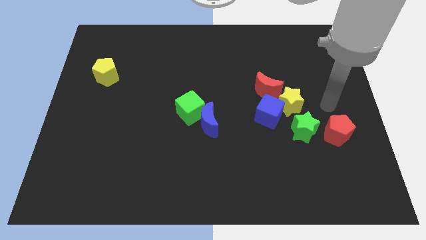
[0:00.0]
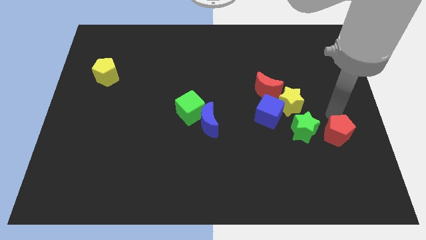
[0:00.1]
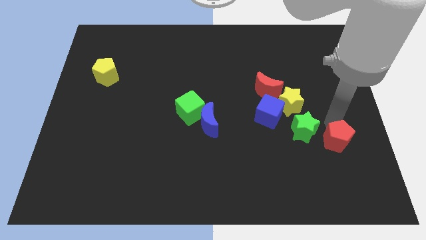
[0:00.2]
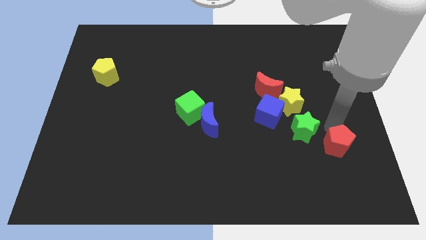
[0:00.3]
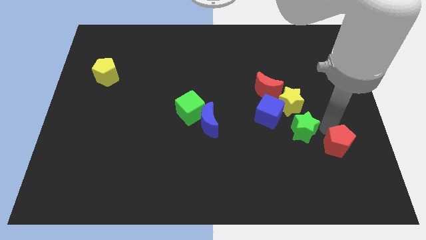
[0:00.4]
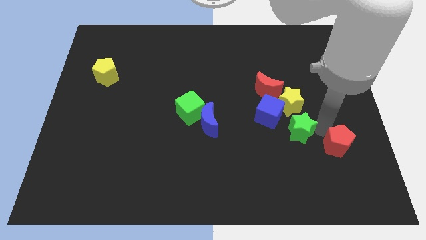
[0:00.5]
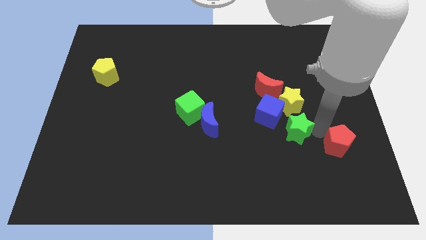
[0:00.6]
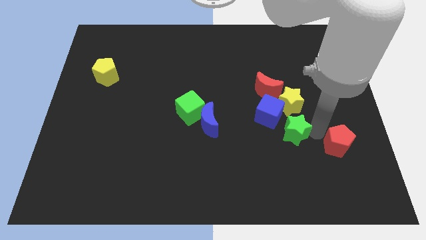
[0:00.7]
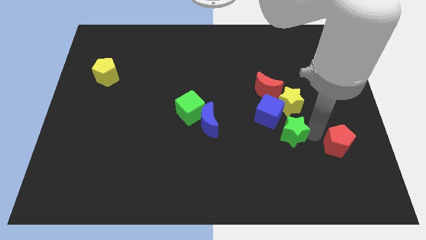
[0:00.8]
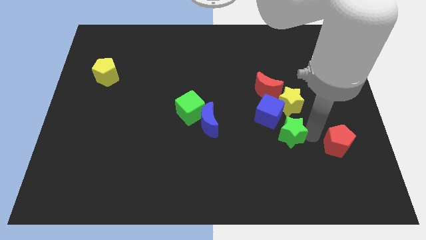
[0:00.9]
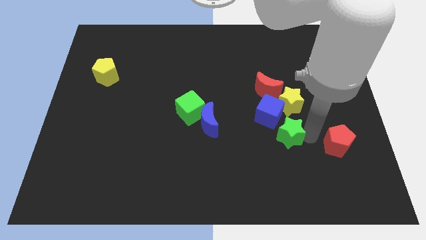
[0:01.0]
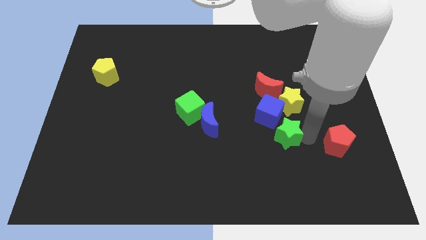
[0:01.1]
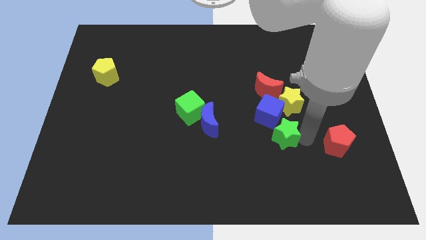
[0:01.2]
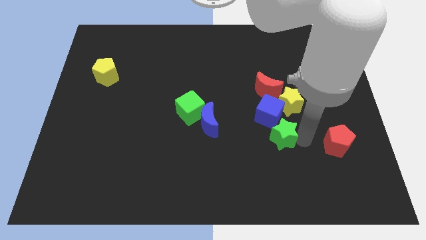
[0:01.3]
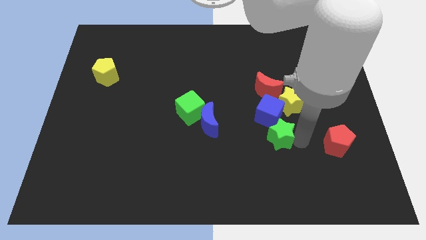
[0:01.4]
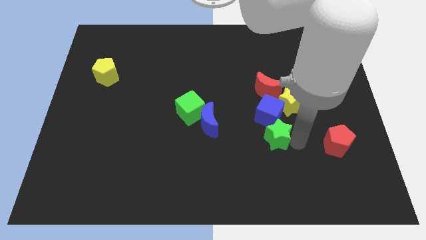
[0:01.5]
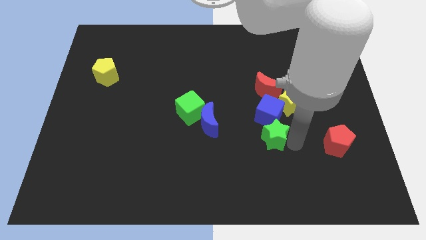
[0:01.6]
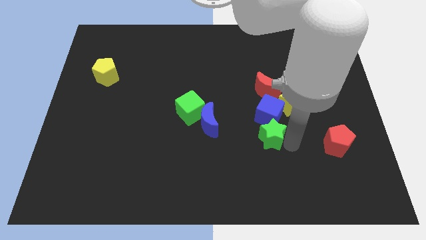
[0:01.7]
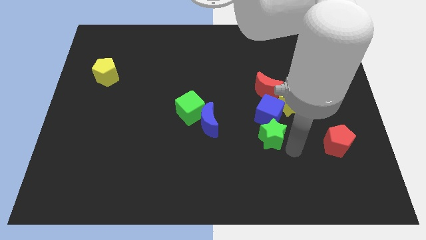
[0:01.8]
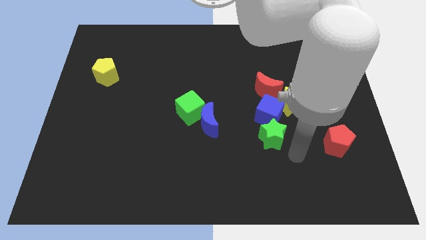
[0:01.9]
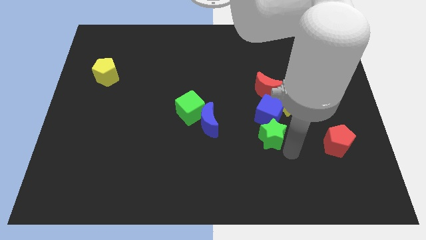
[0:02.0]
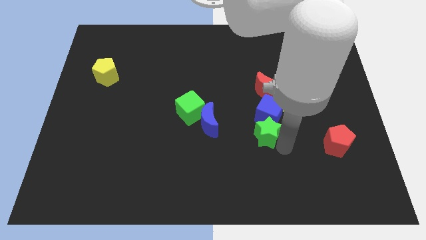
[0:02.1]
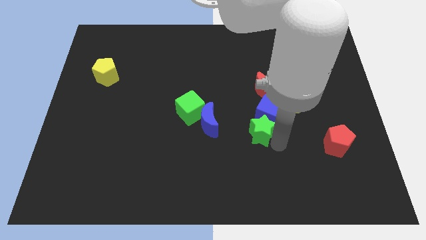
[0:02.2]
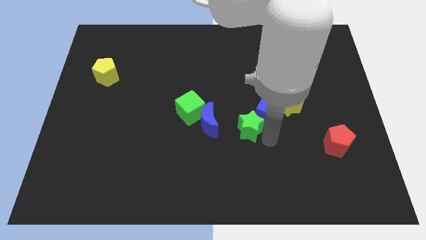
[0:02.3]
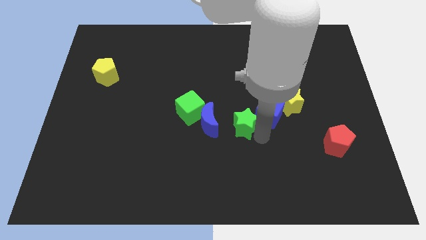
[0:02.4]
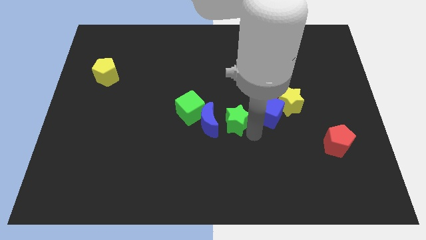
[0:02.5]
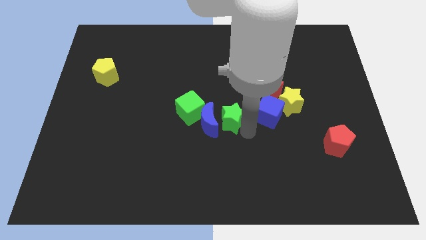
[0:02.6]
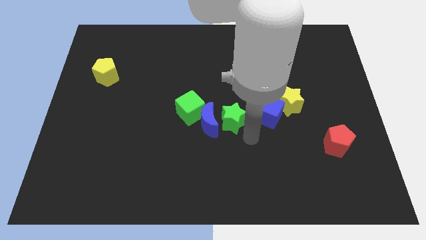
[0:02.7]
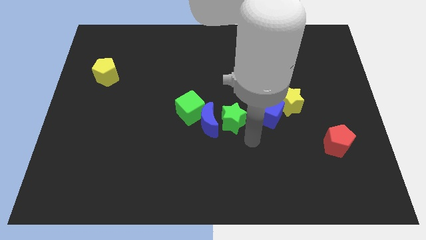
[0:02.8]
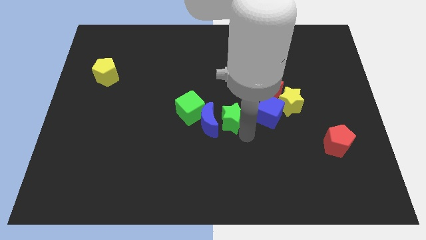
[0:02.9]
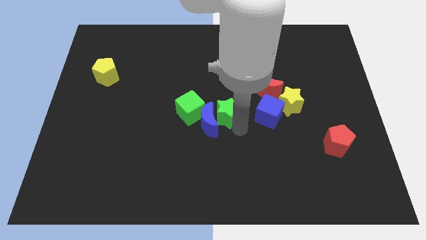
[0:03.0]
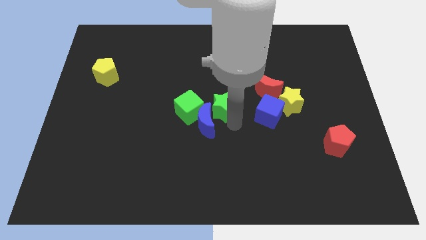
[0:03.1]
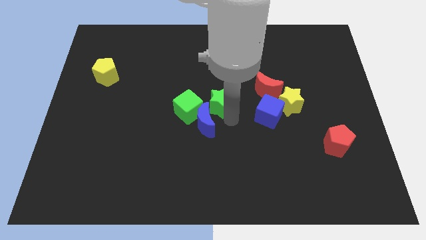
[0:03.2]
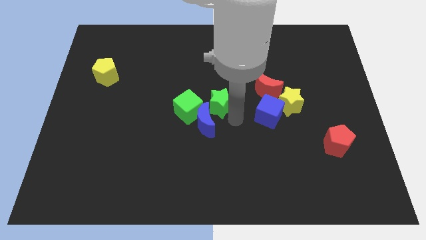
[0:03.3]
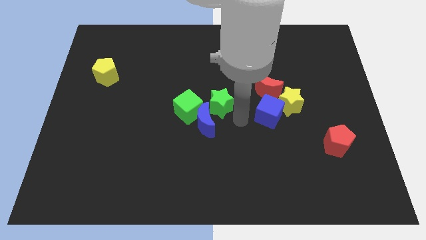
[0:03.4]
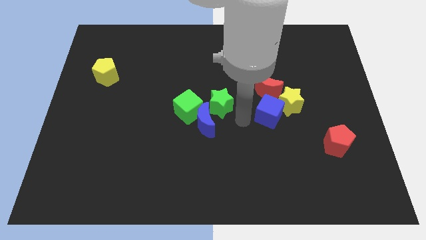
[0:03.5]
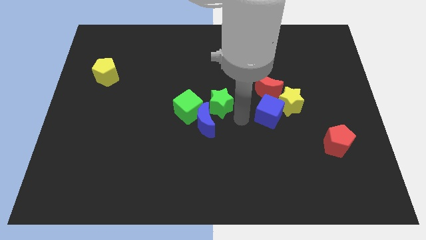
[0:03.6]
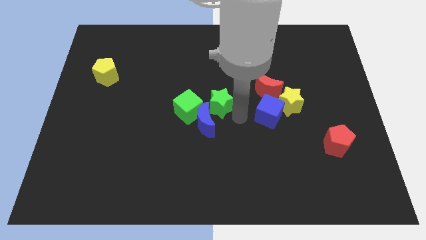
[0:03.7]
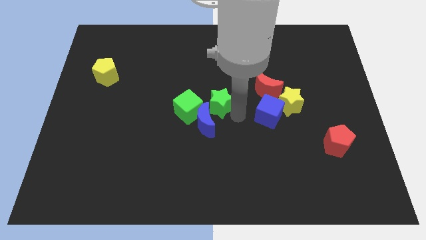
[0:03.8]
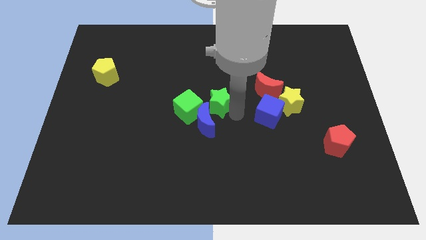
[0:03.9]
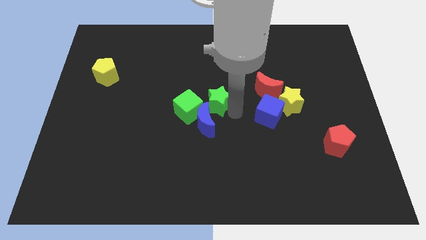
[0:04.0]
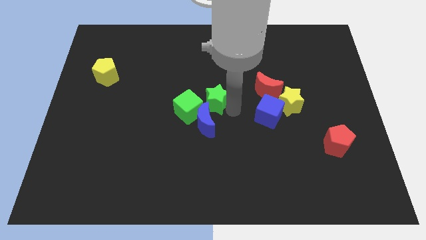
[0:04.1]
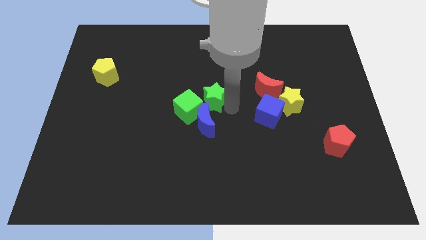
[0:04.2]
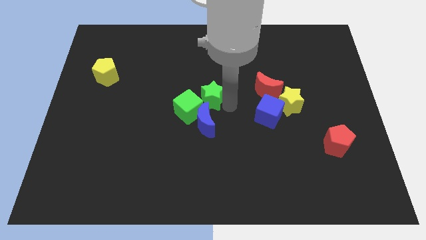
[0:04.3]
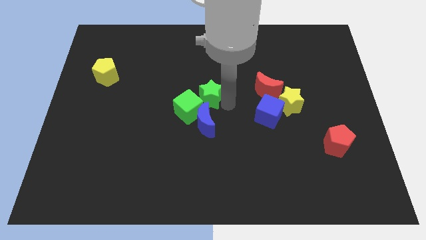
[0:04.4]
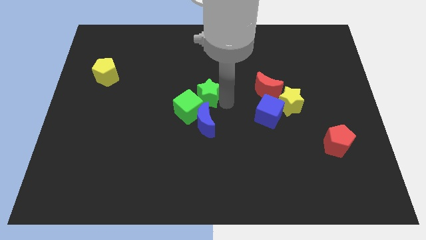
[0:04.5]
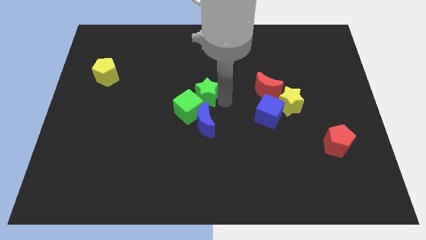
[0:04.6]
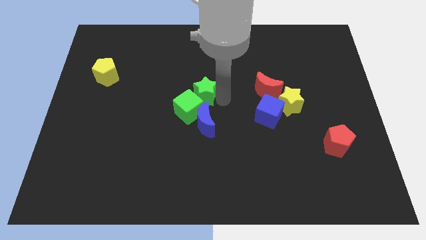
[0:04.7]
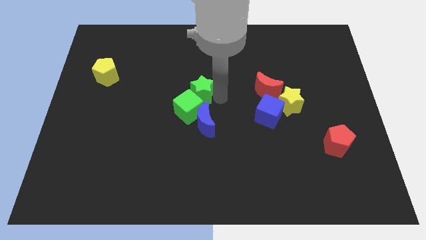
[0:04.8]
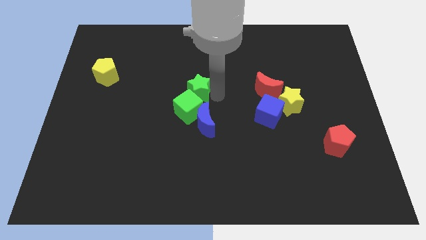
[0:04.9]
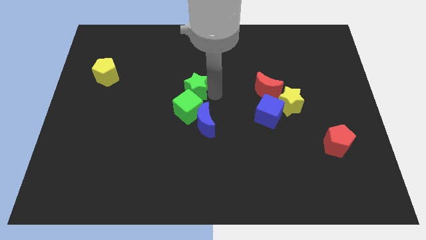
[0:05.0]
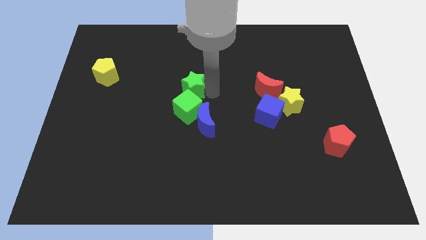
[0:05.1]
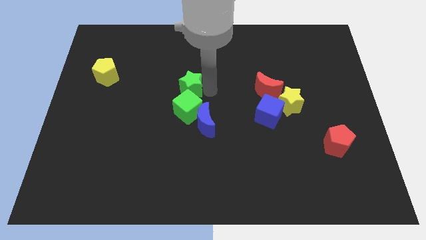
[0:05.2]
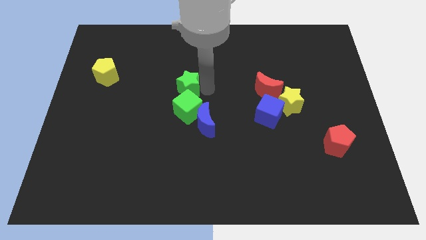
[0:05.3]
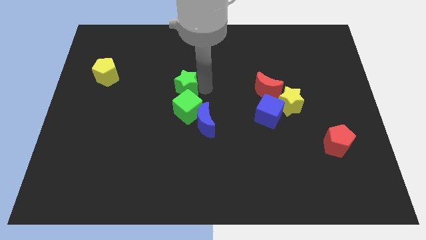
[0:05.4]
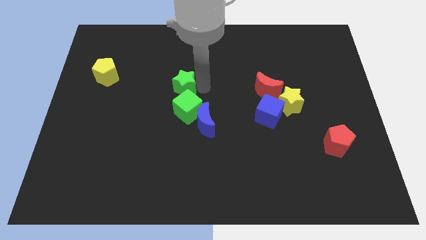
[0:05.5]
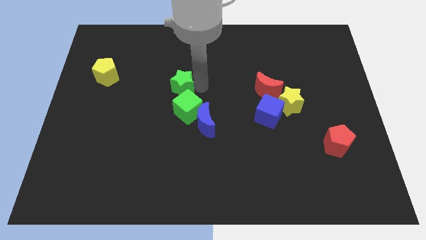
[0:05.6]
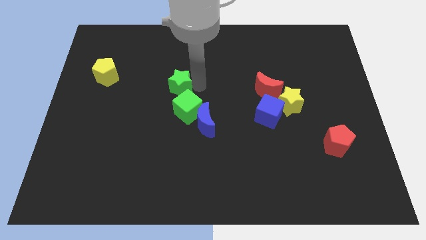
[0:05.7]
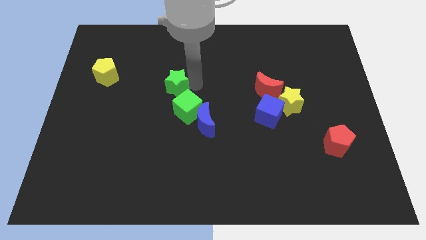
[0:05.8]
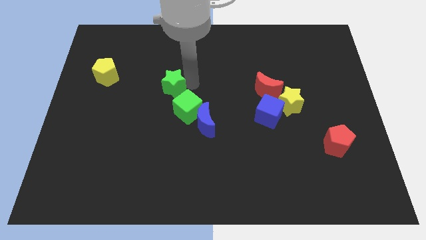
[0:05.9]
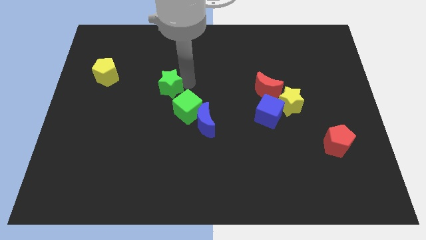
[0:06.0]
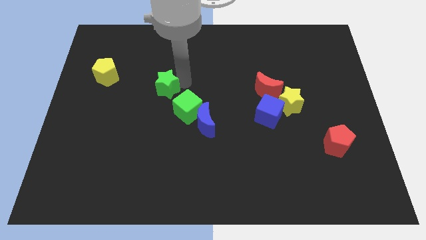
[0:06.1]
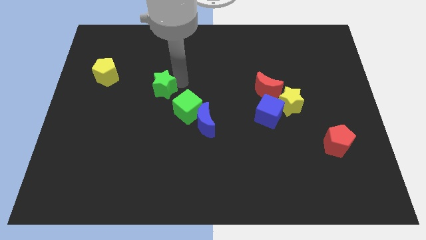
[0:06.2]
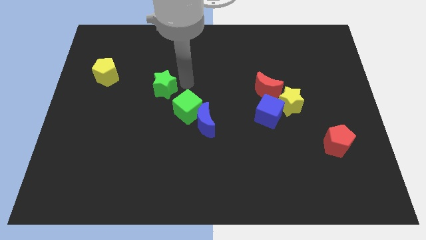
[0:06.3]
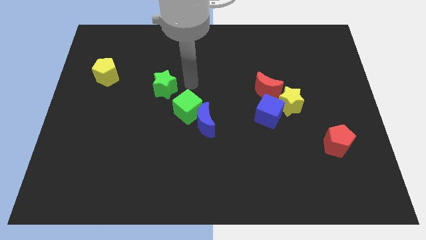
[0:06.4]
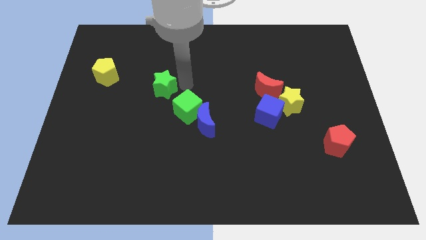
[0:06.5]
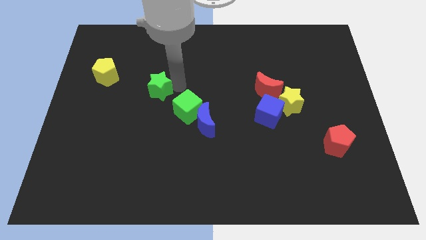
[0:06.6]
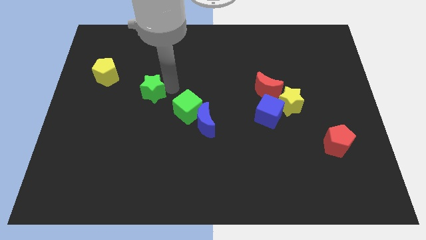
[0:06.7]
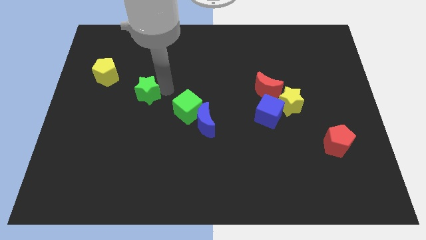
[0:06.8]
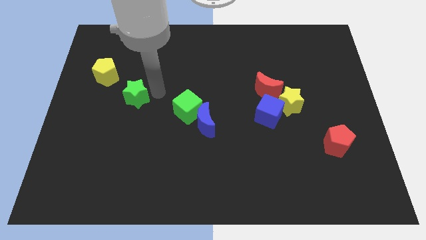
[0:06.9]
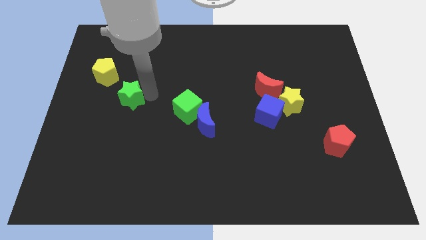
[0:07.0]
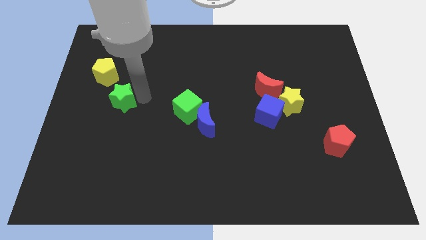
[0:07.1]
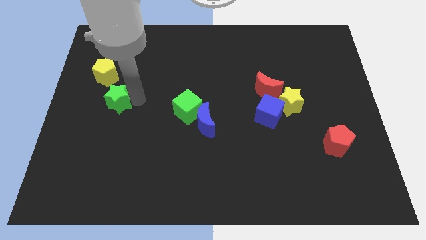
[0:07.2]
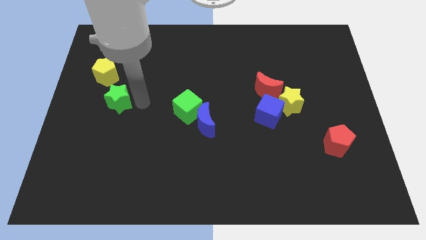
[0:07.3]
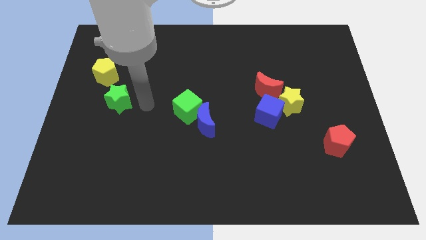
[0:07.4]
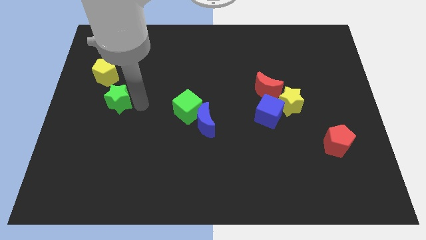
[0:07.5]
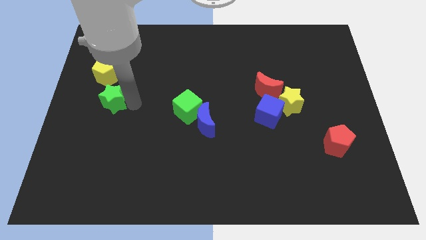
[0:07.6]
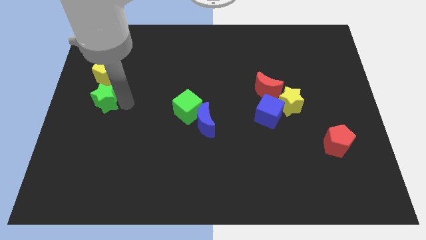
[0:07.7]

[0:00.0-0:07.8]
slide the green star to the left side of the board
